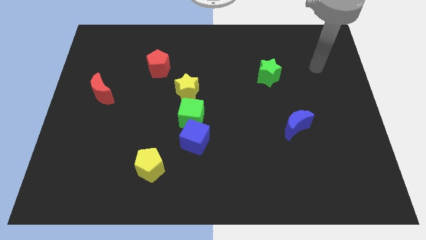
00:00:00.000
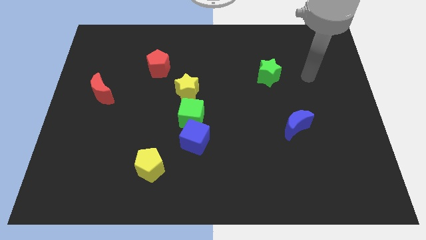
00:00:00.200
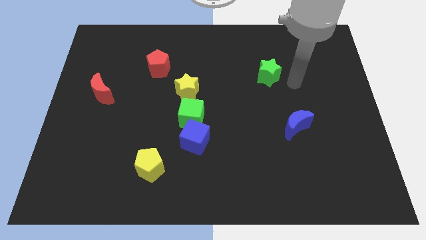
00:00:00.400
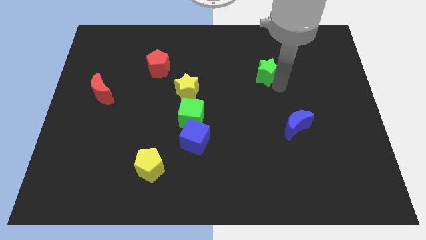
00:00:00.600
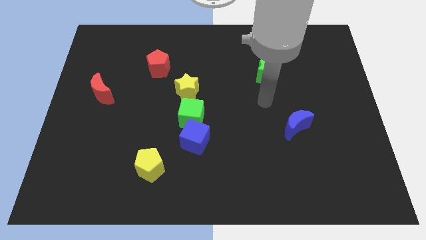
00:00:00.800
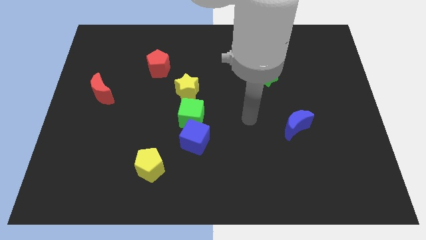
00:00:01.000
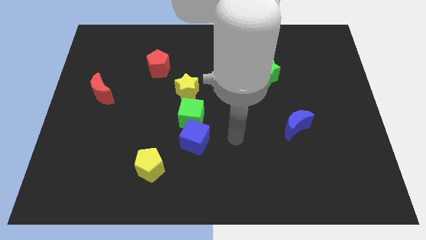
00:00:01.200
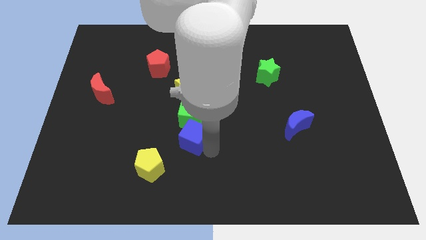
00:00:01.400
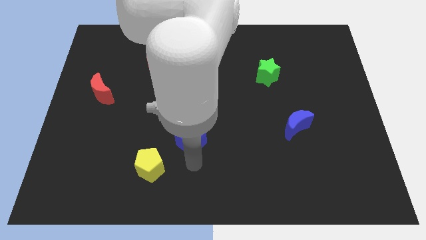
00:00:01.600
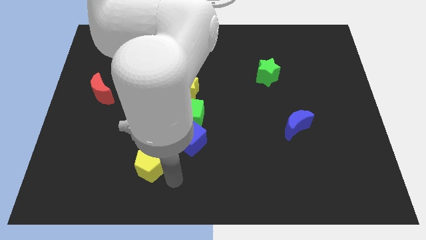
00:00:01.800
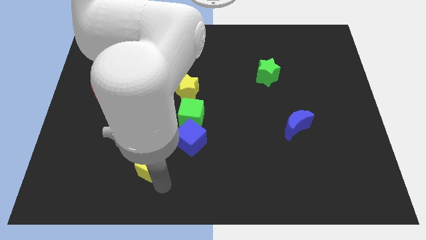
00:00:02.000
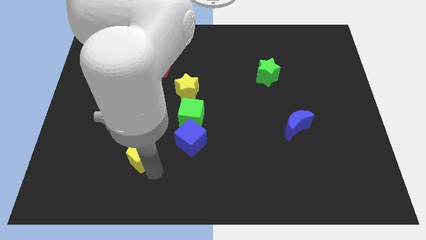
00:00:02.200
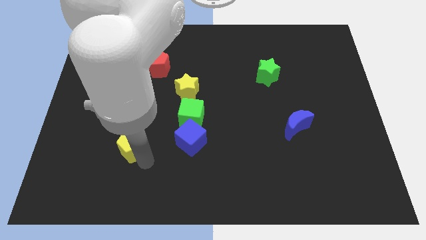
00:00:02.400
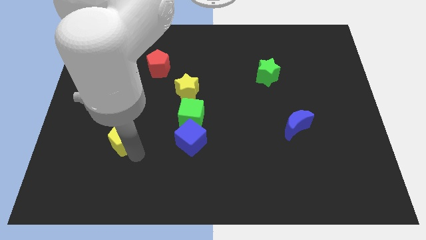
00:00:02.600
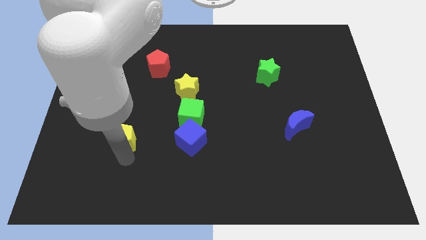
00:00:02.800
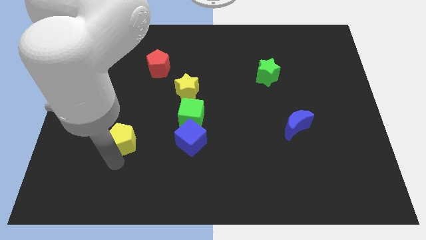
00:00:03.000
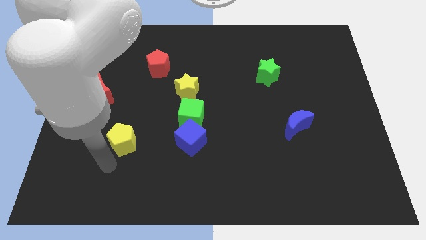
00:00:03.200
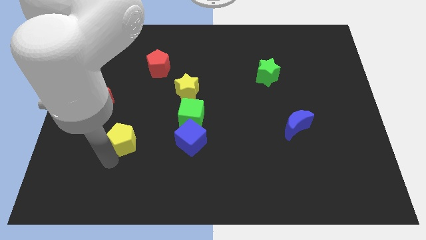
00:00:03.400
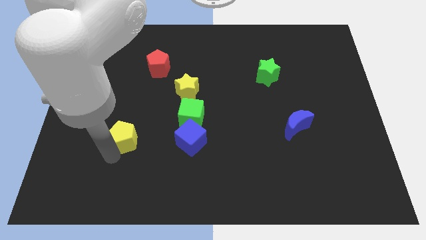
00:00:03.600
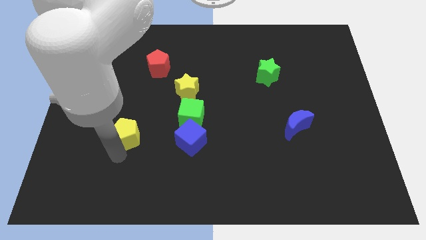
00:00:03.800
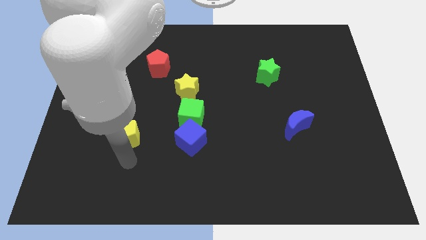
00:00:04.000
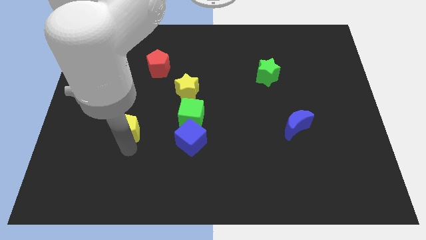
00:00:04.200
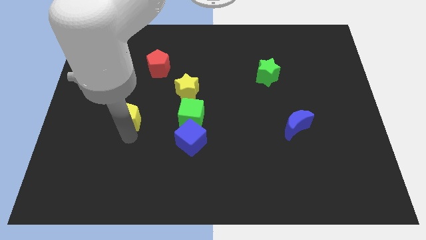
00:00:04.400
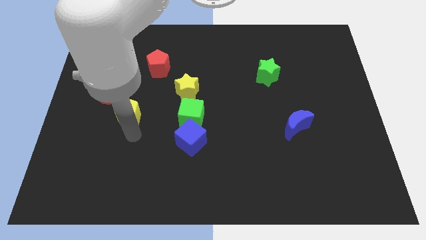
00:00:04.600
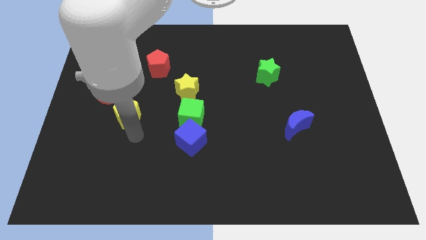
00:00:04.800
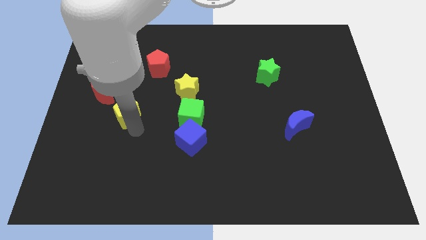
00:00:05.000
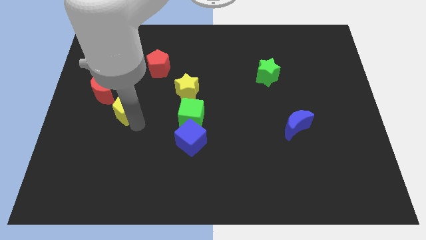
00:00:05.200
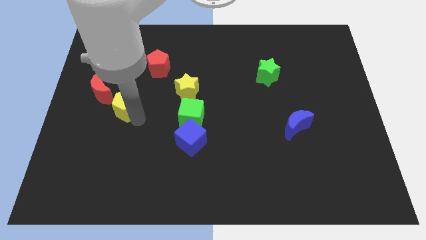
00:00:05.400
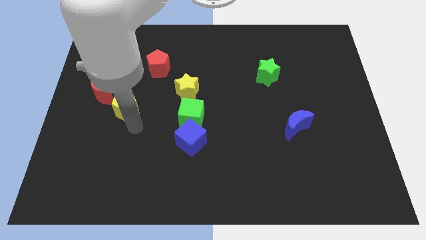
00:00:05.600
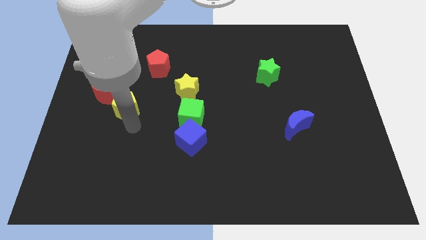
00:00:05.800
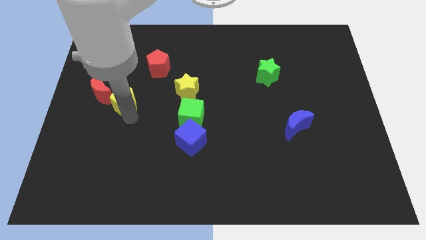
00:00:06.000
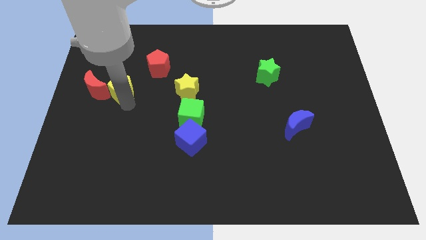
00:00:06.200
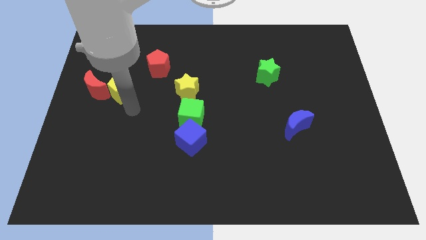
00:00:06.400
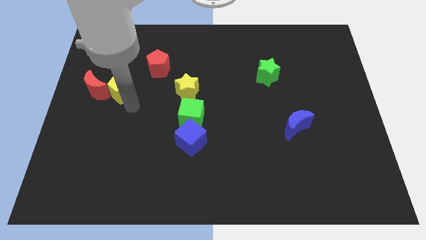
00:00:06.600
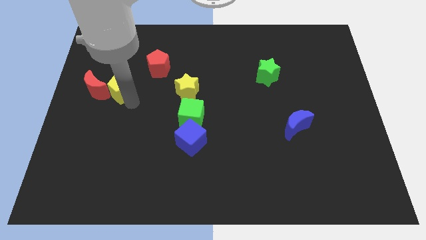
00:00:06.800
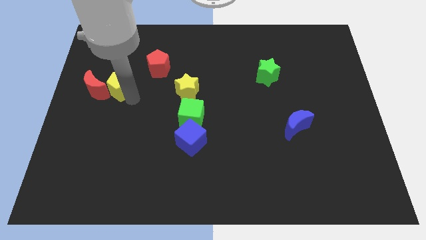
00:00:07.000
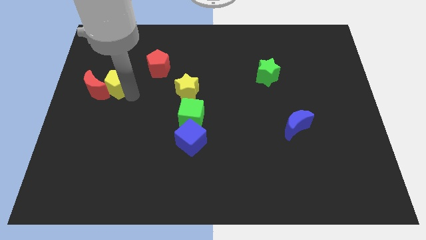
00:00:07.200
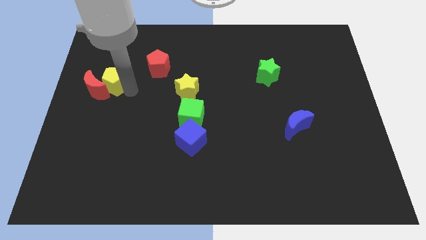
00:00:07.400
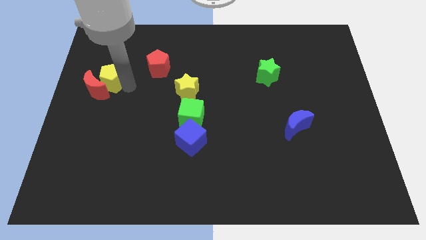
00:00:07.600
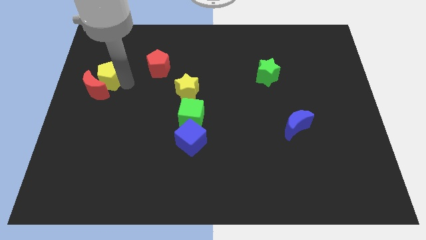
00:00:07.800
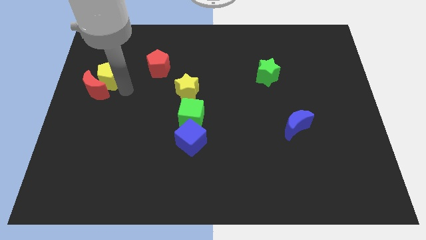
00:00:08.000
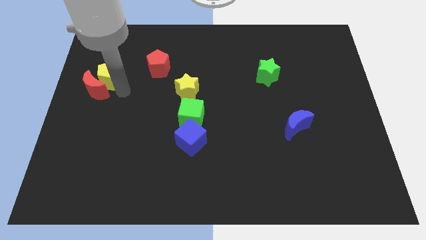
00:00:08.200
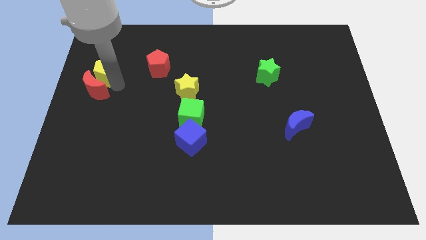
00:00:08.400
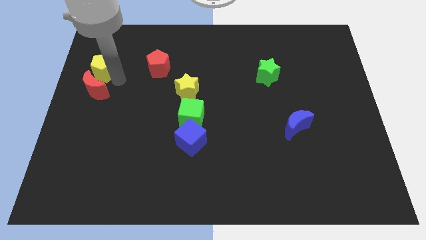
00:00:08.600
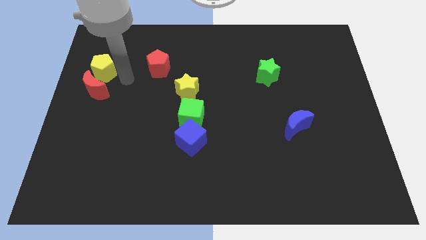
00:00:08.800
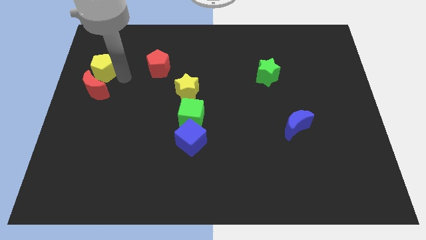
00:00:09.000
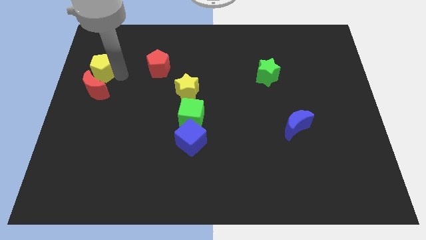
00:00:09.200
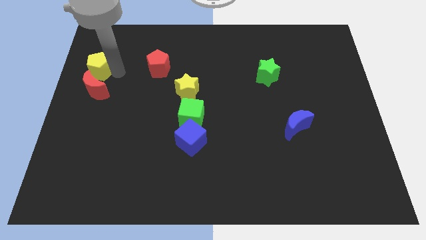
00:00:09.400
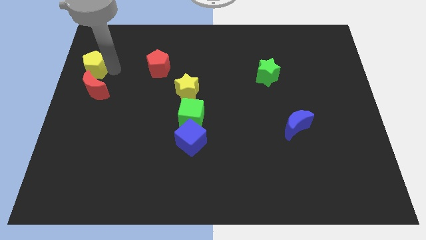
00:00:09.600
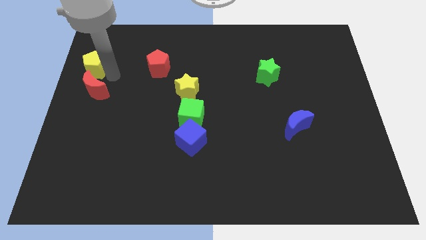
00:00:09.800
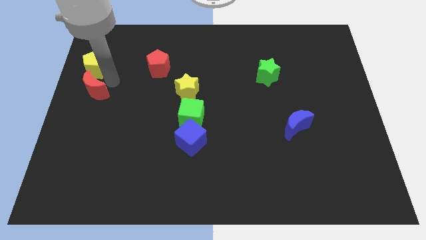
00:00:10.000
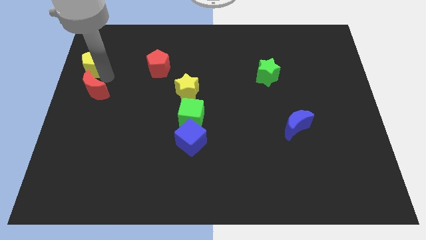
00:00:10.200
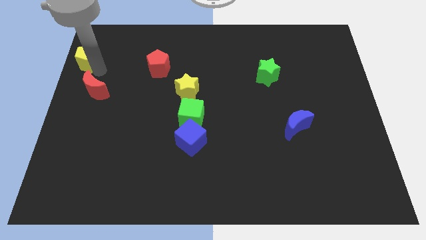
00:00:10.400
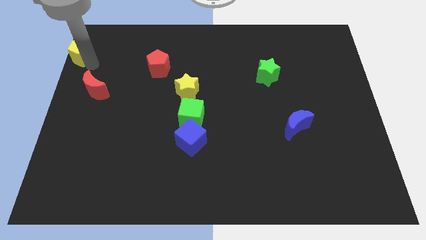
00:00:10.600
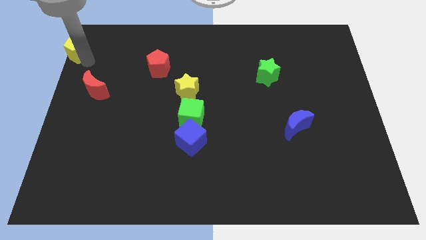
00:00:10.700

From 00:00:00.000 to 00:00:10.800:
put the yellow pentagon to the top left

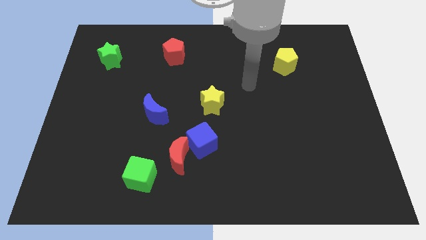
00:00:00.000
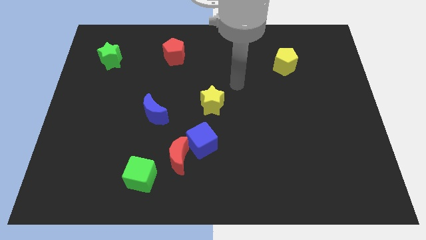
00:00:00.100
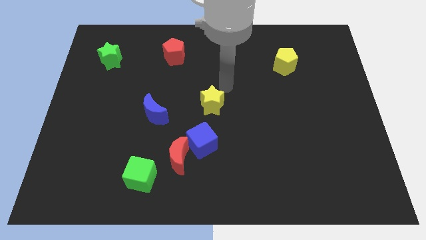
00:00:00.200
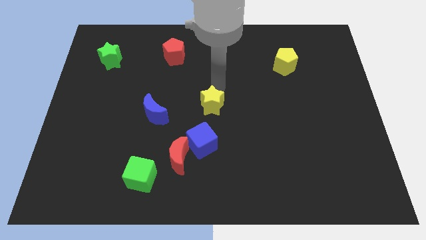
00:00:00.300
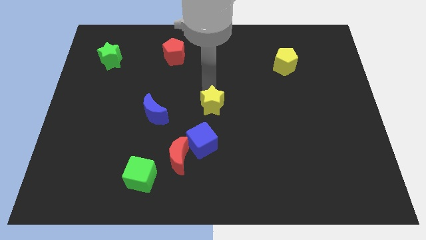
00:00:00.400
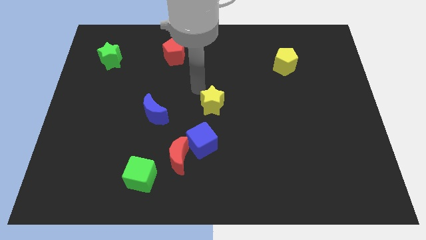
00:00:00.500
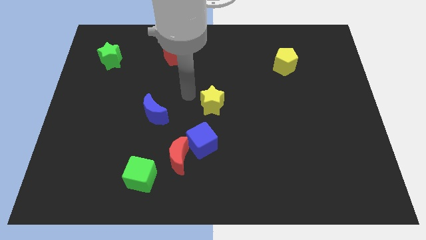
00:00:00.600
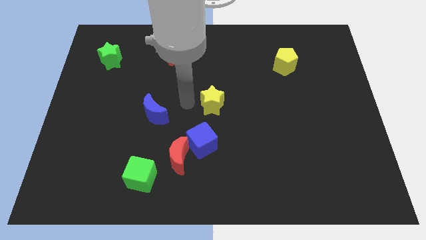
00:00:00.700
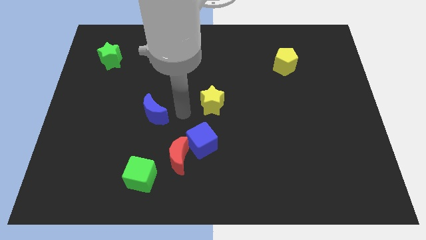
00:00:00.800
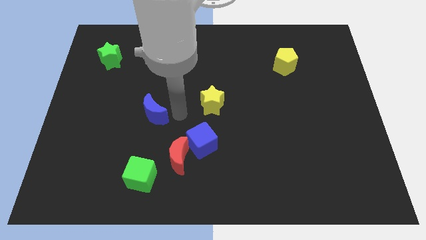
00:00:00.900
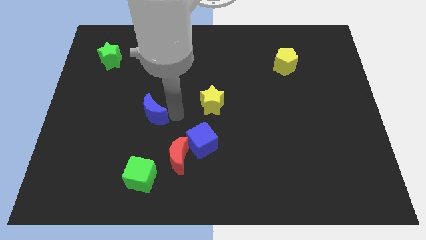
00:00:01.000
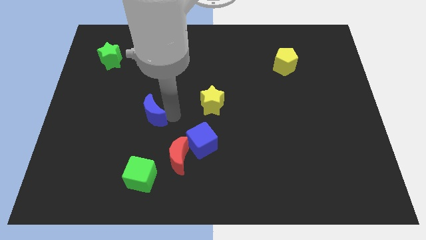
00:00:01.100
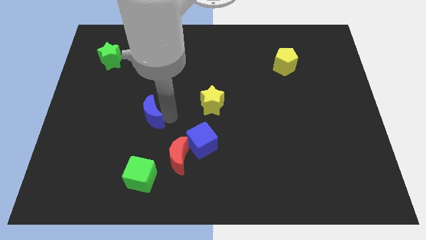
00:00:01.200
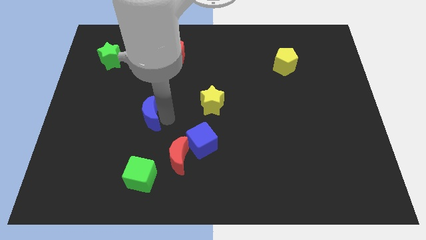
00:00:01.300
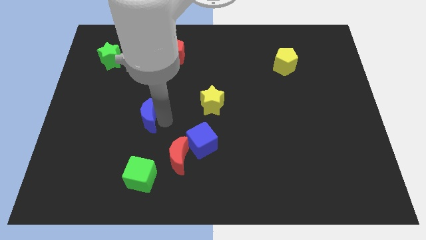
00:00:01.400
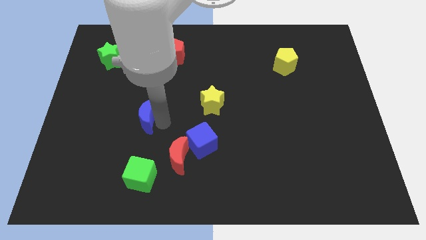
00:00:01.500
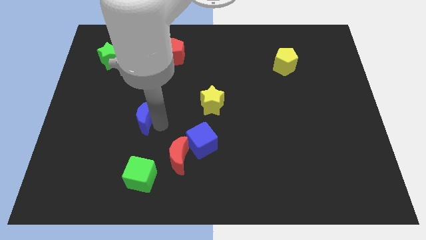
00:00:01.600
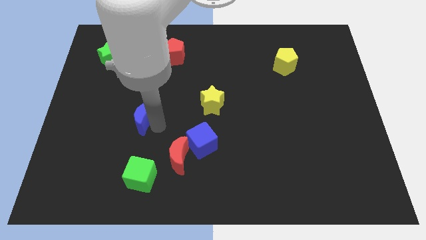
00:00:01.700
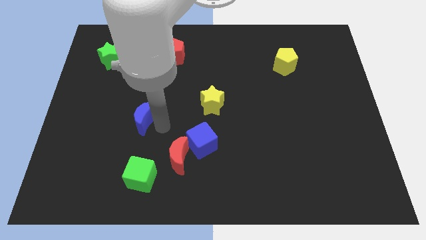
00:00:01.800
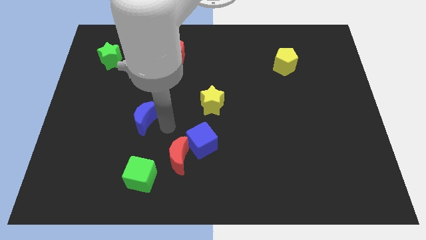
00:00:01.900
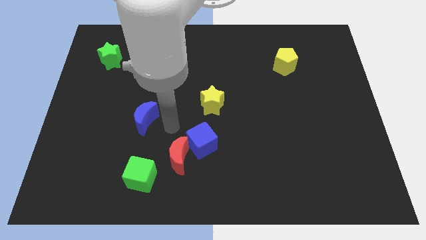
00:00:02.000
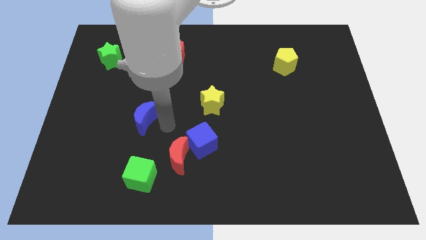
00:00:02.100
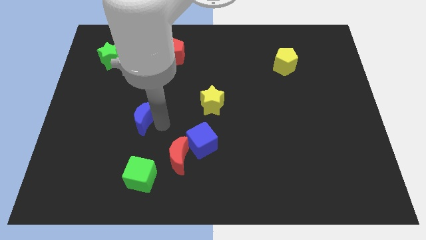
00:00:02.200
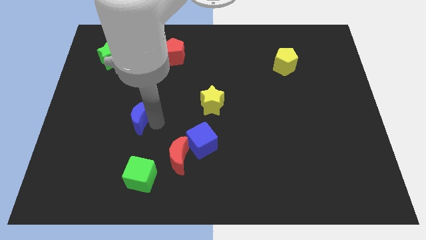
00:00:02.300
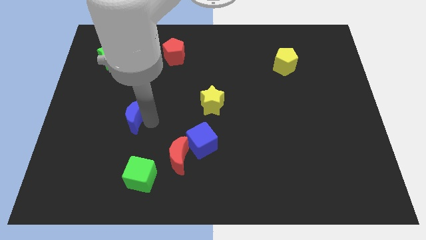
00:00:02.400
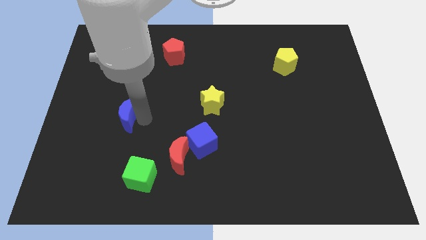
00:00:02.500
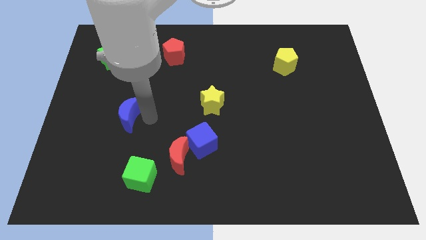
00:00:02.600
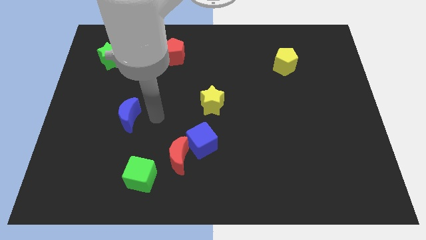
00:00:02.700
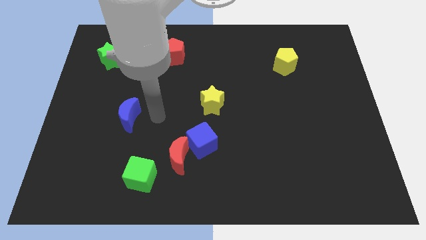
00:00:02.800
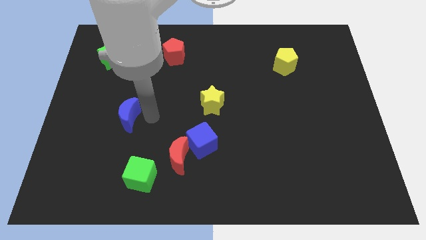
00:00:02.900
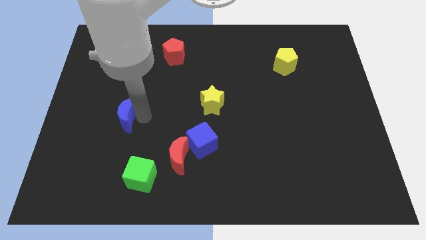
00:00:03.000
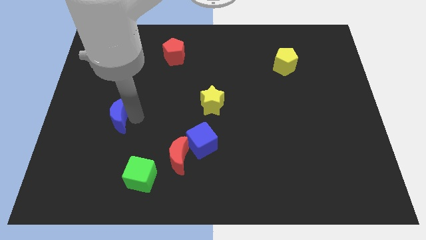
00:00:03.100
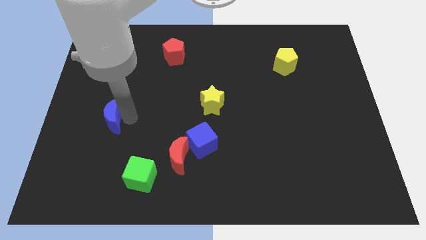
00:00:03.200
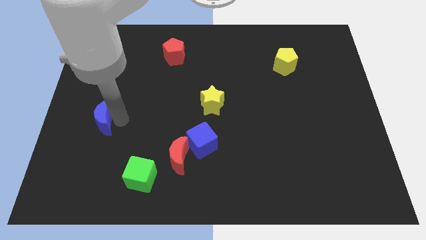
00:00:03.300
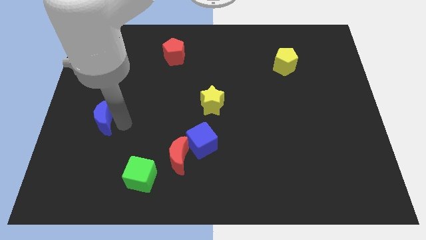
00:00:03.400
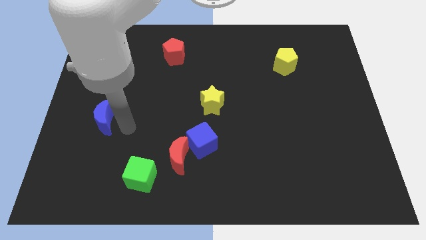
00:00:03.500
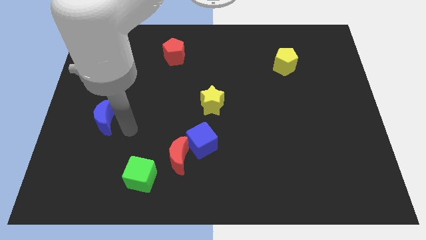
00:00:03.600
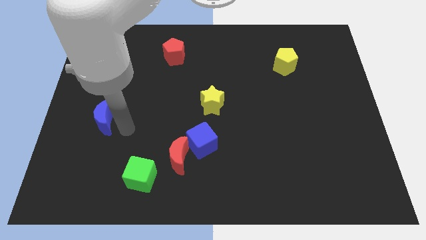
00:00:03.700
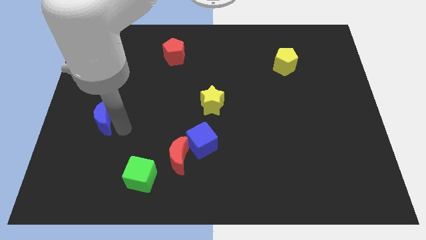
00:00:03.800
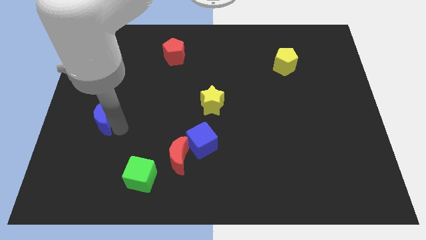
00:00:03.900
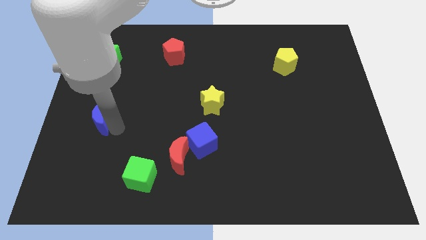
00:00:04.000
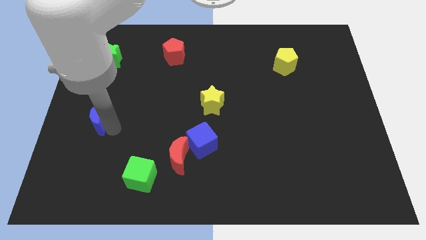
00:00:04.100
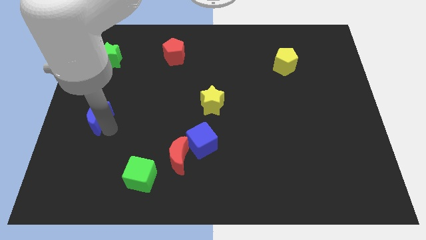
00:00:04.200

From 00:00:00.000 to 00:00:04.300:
put the blue moon to the left side of the board
